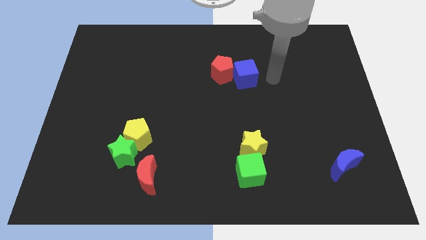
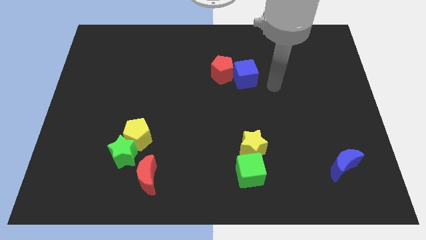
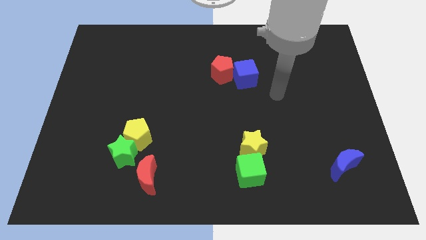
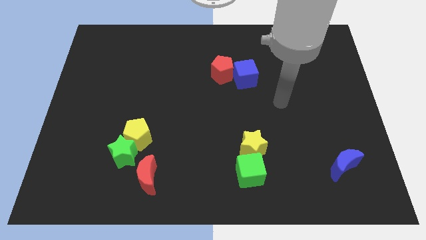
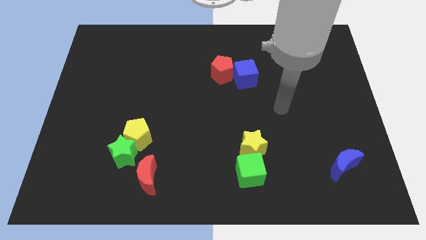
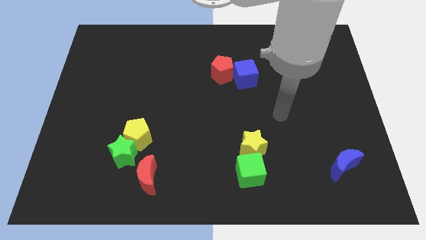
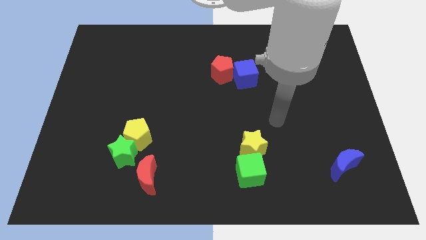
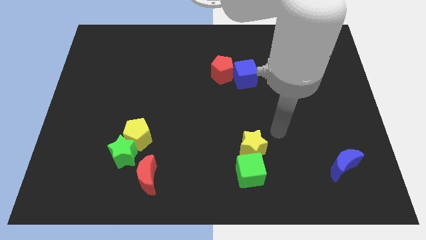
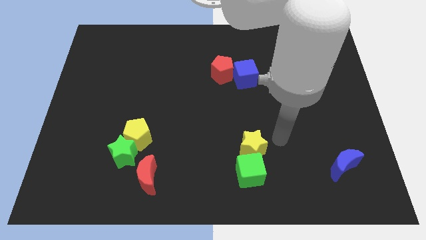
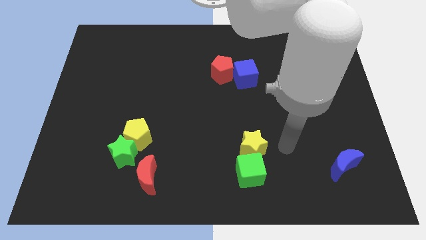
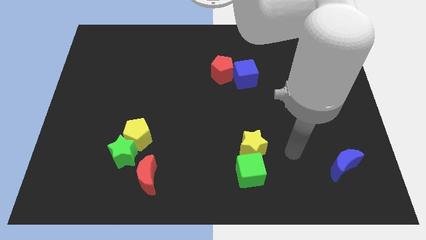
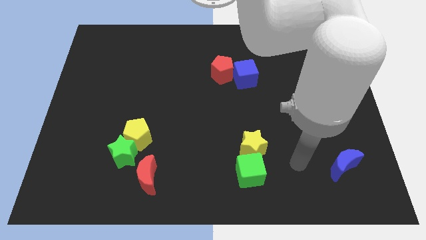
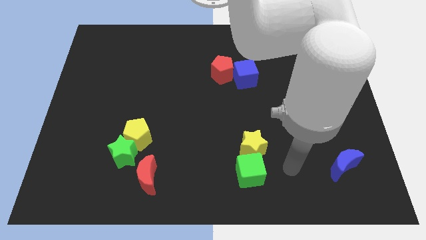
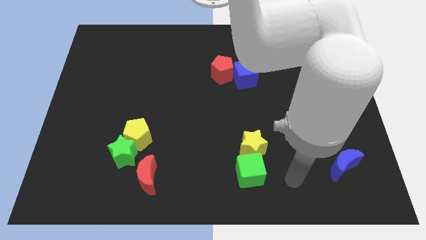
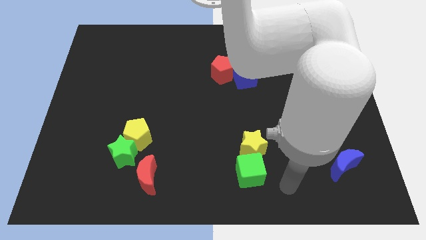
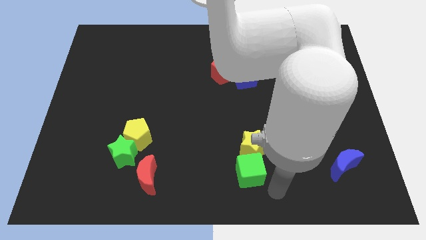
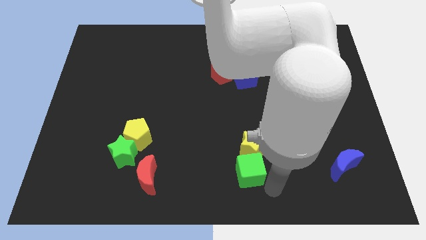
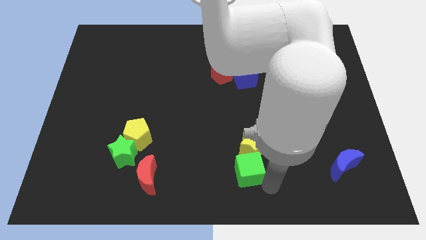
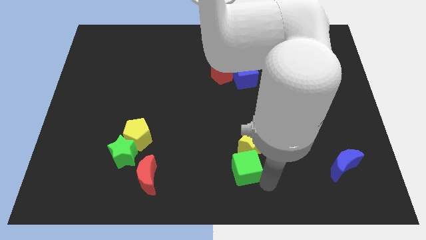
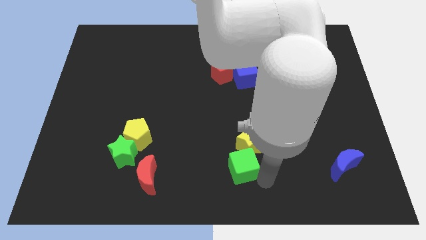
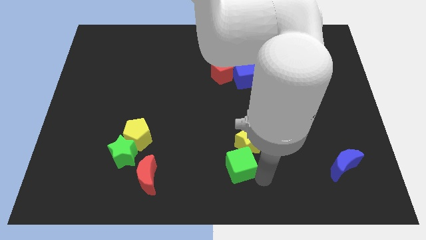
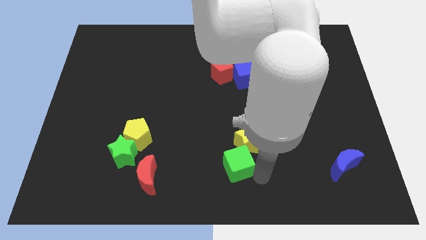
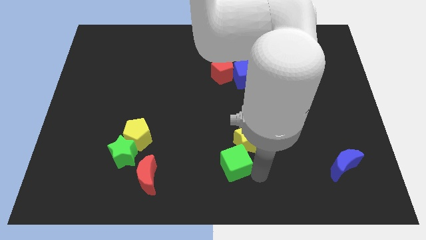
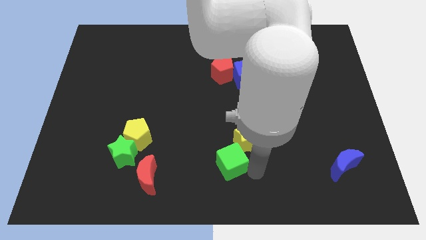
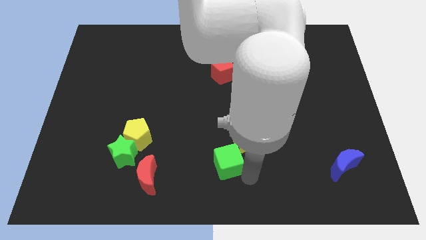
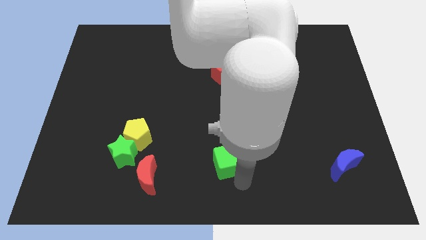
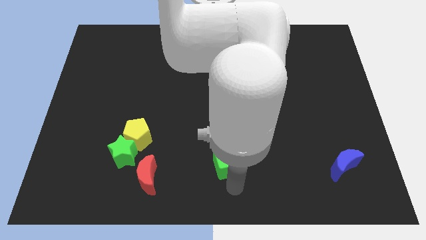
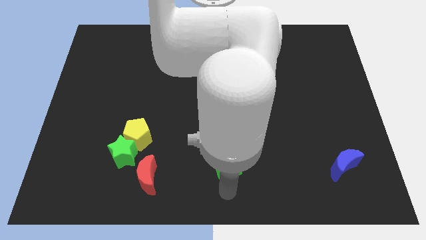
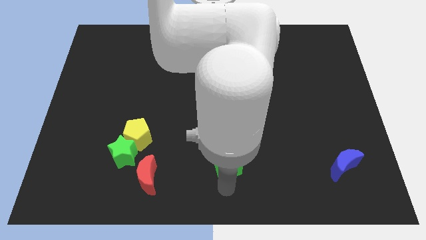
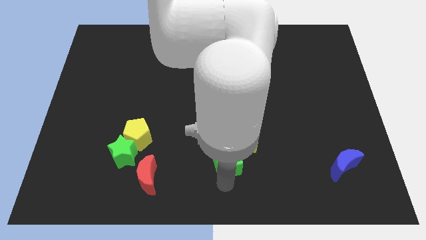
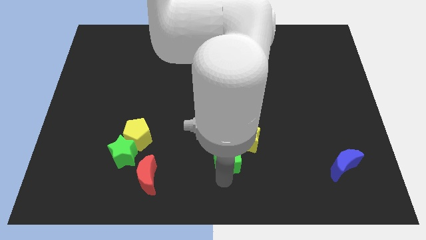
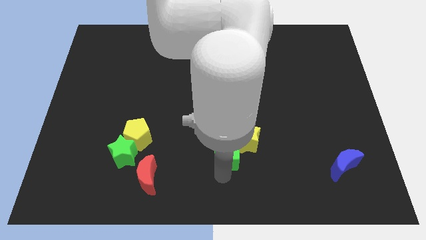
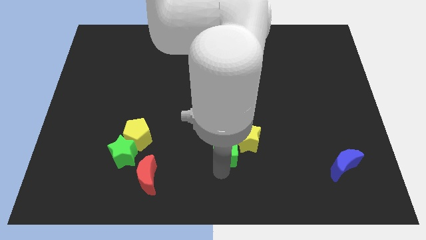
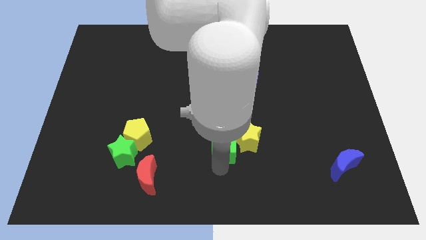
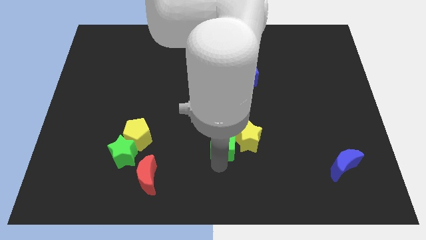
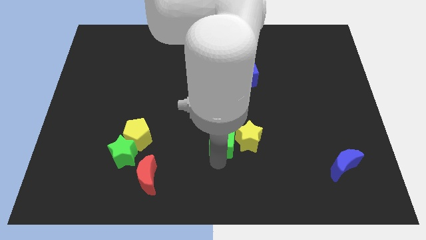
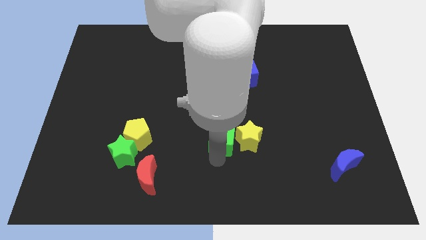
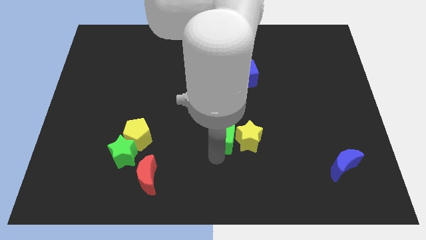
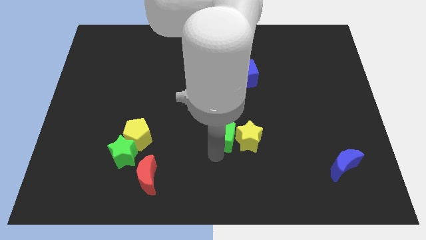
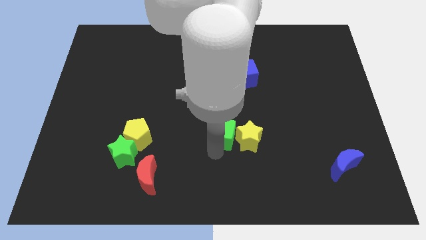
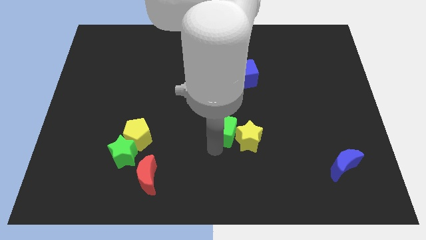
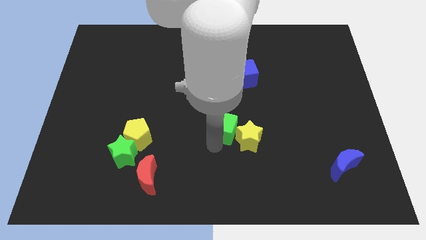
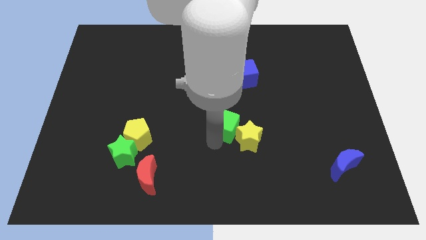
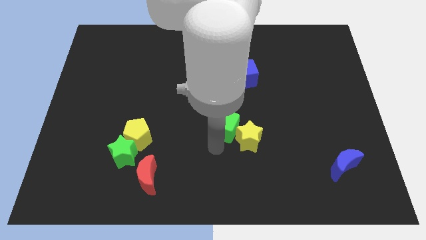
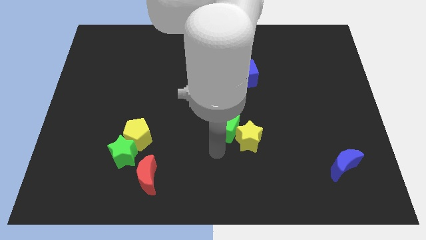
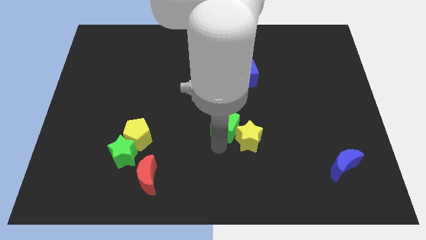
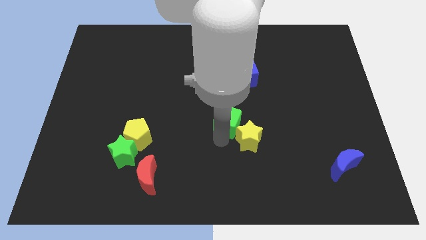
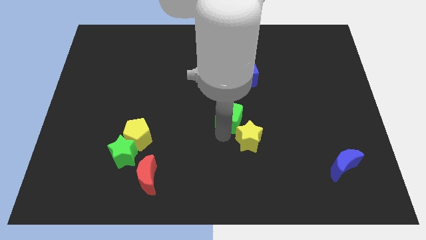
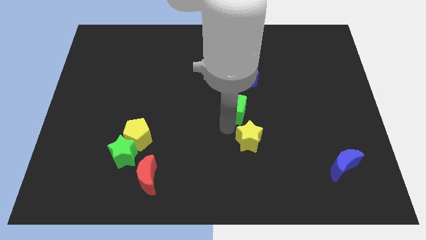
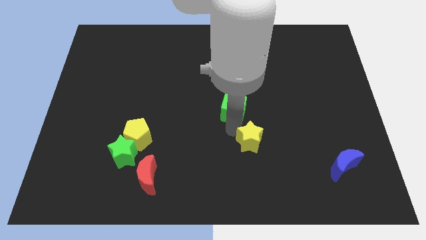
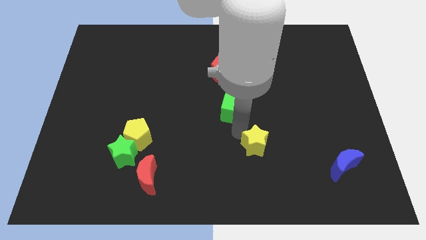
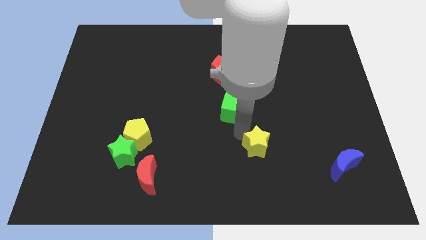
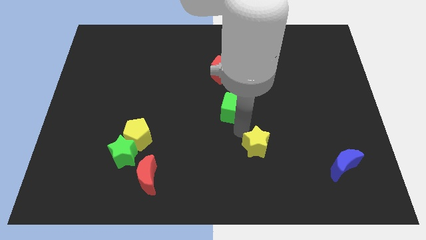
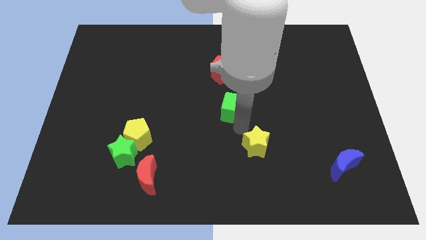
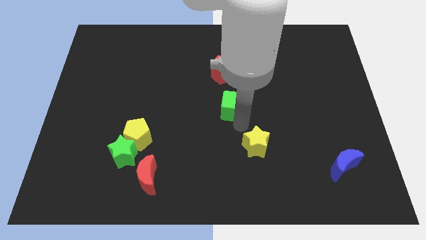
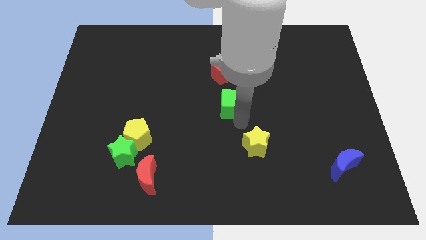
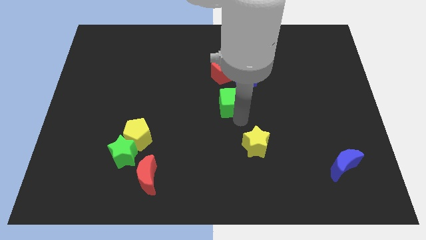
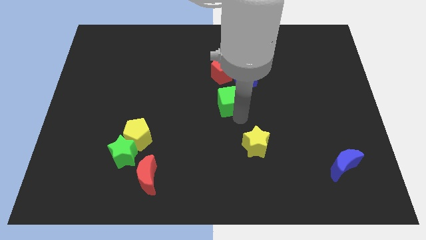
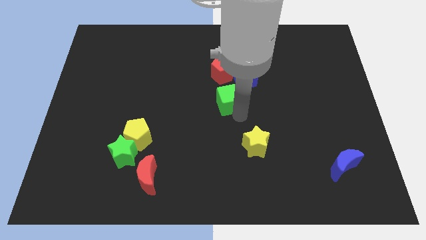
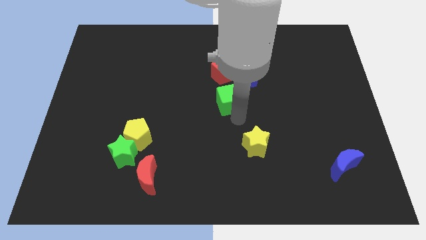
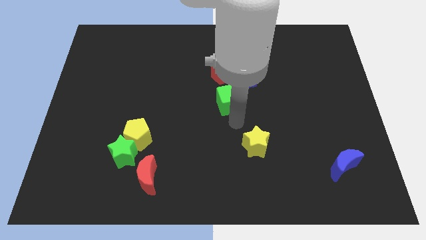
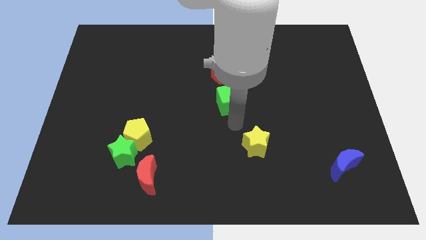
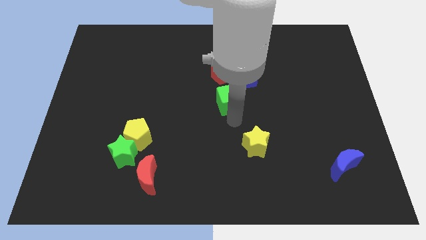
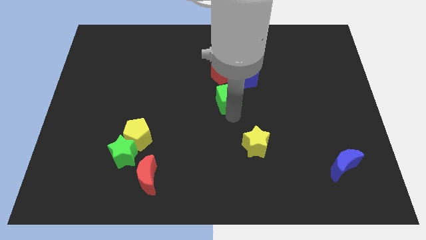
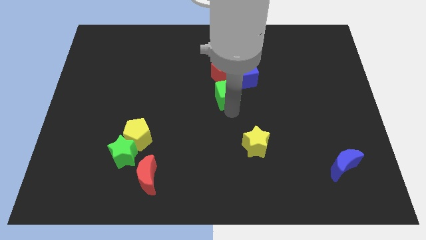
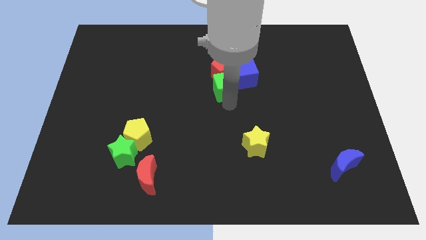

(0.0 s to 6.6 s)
put the green cube to the red pentagon
